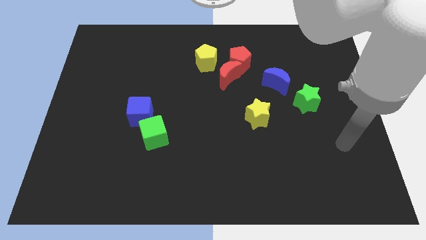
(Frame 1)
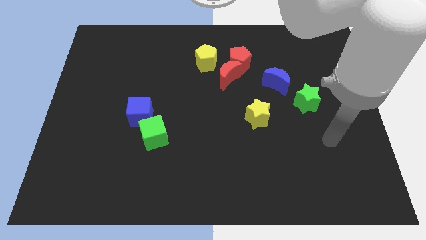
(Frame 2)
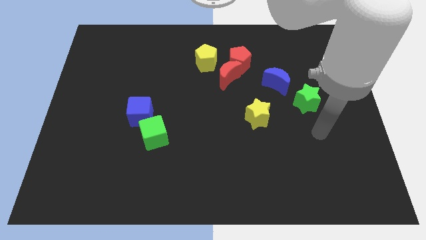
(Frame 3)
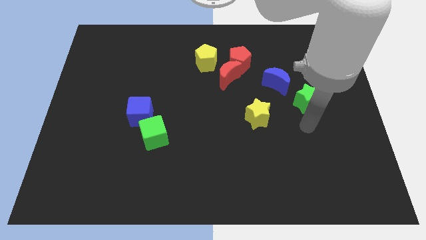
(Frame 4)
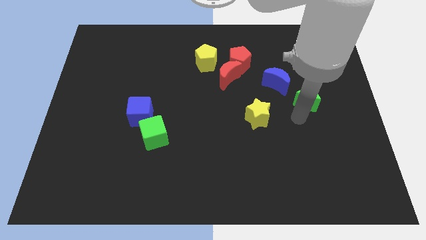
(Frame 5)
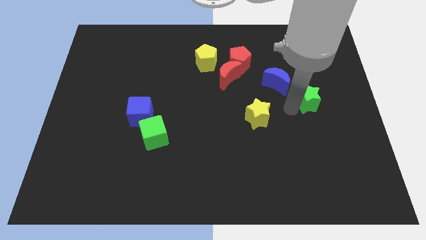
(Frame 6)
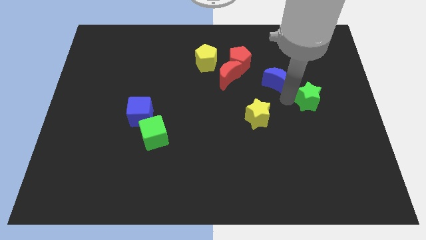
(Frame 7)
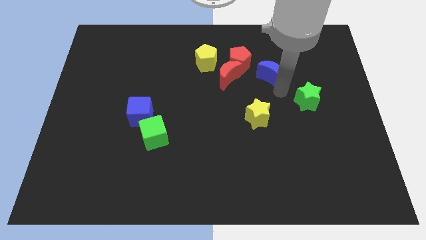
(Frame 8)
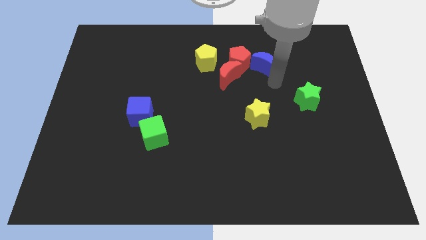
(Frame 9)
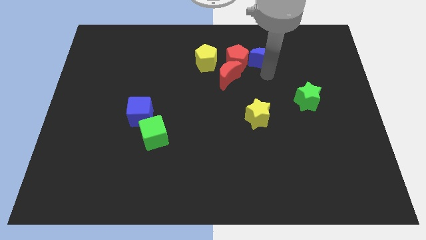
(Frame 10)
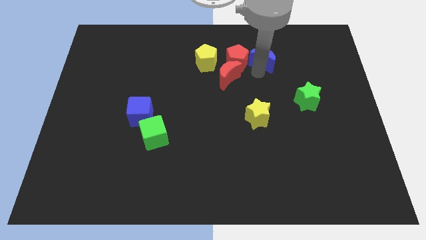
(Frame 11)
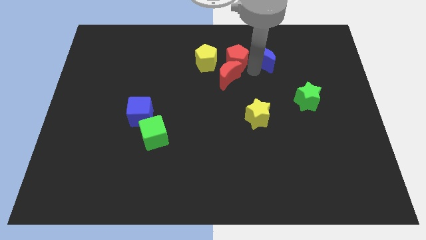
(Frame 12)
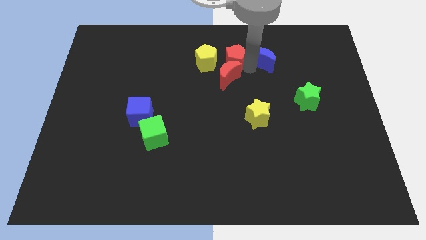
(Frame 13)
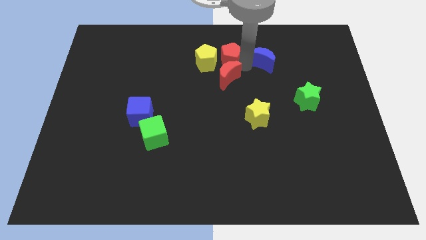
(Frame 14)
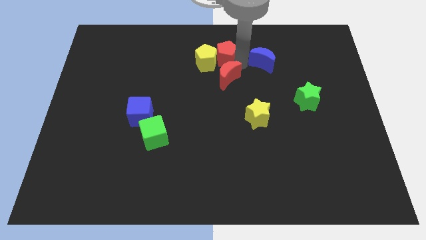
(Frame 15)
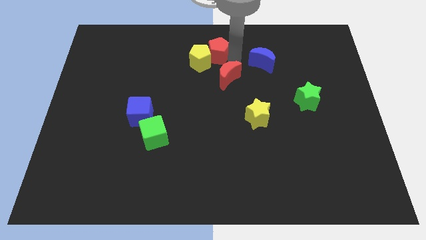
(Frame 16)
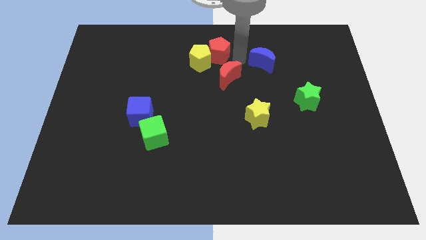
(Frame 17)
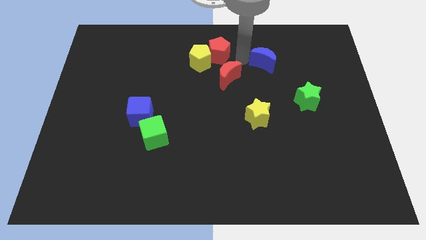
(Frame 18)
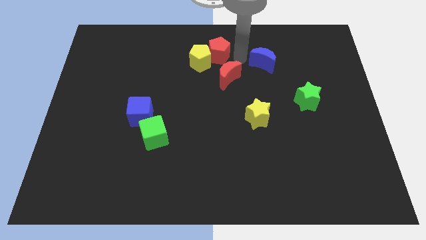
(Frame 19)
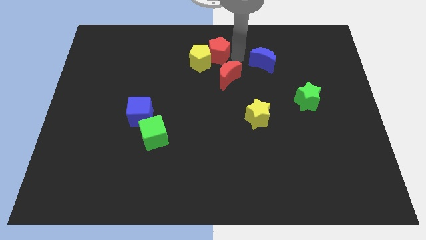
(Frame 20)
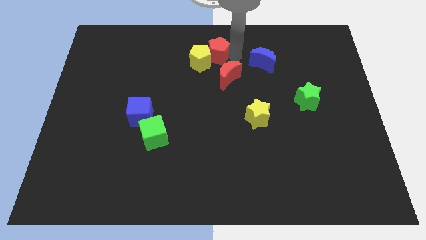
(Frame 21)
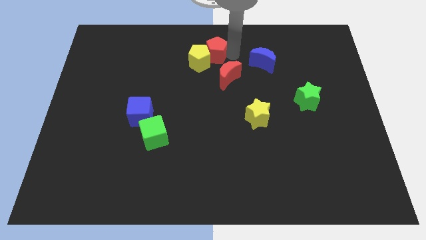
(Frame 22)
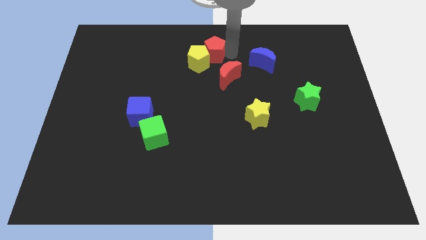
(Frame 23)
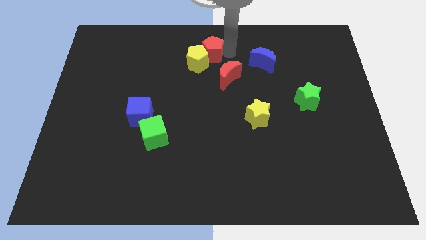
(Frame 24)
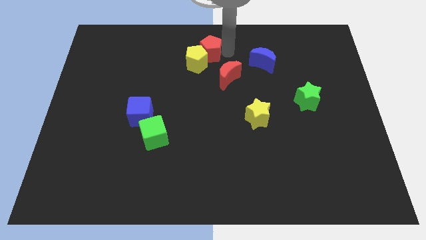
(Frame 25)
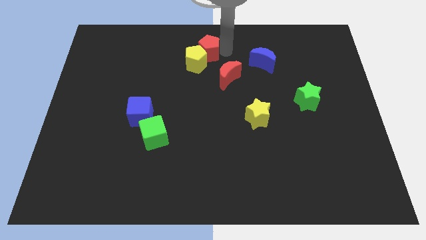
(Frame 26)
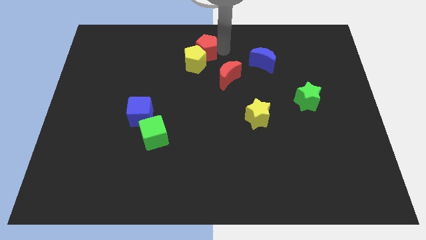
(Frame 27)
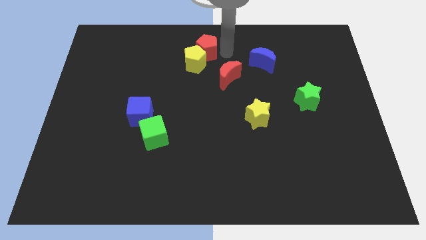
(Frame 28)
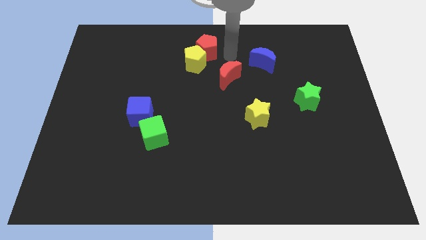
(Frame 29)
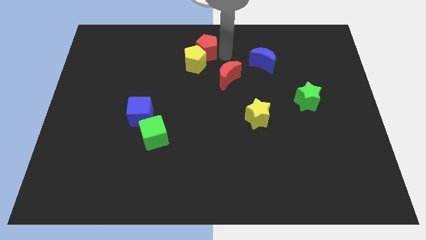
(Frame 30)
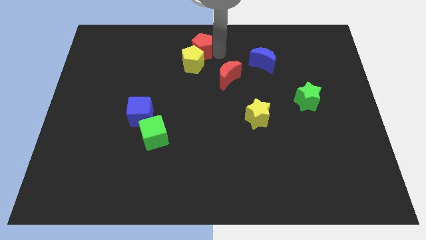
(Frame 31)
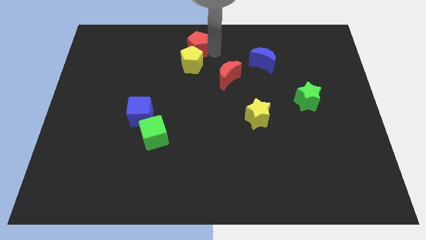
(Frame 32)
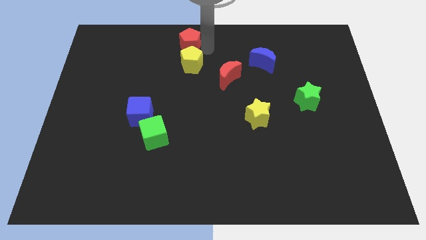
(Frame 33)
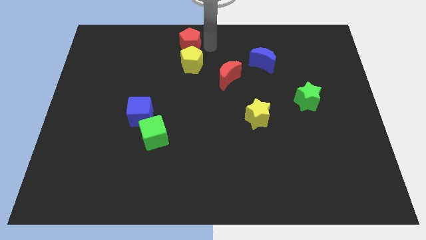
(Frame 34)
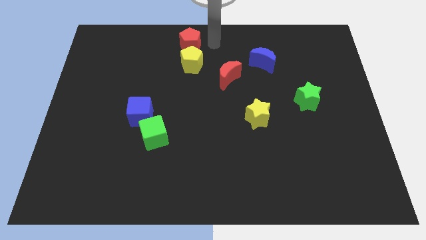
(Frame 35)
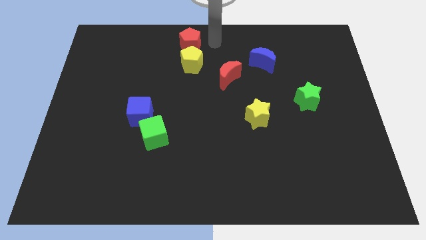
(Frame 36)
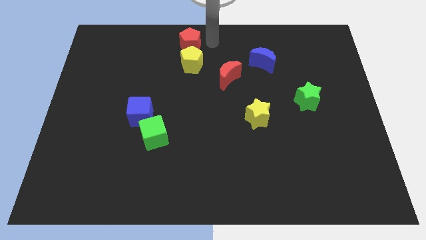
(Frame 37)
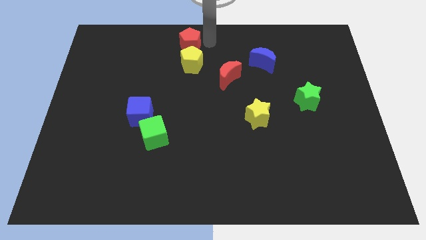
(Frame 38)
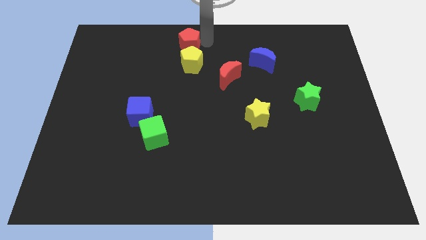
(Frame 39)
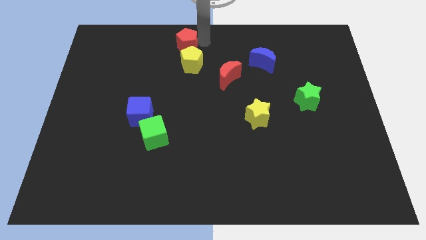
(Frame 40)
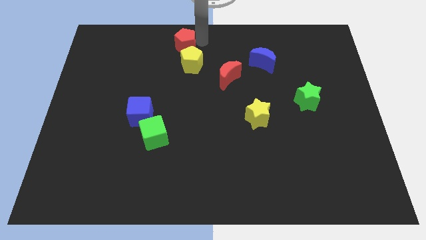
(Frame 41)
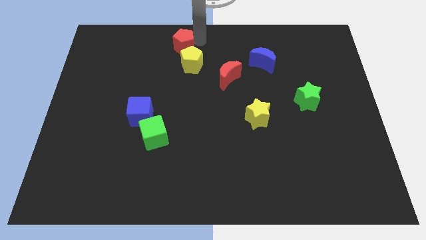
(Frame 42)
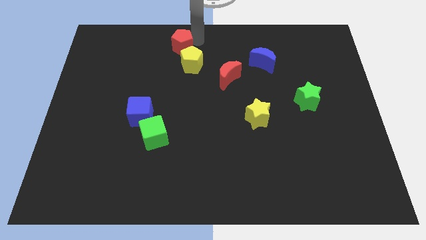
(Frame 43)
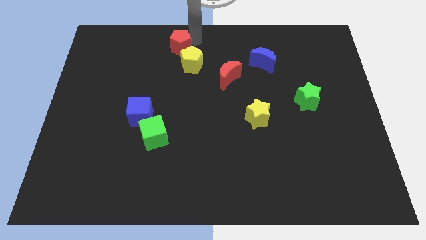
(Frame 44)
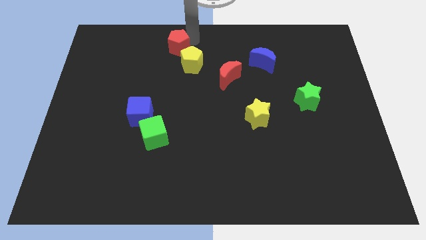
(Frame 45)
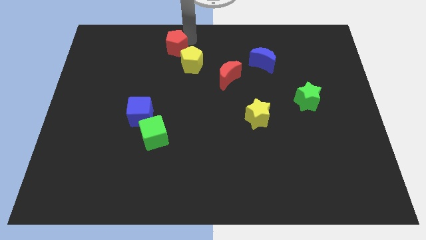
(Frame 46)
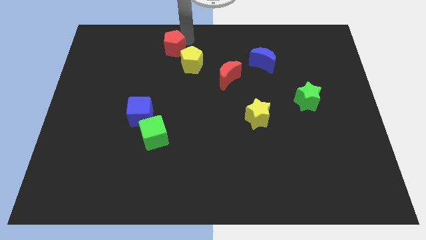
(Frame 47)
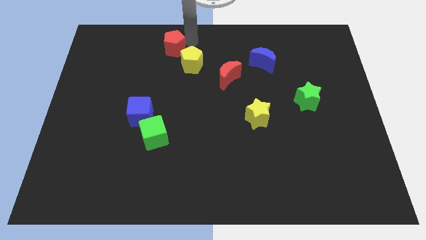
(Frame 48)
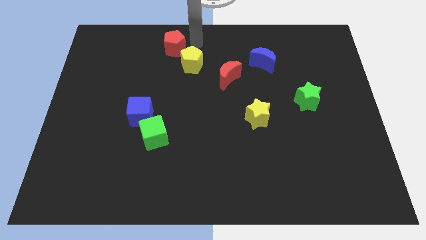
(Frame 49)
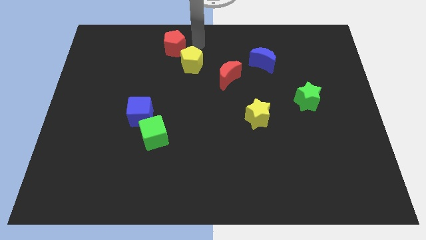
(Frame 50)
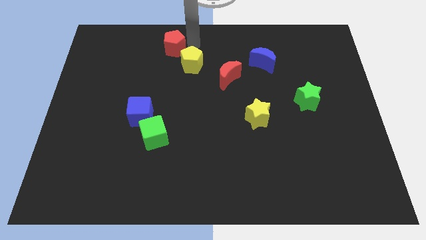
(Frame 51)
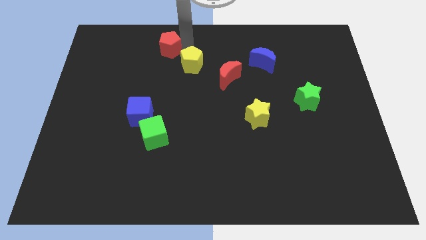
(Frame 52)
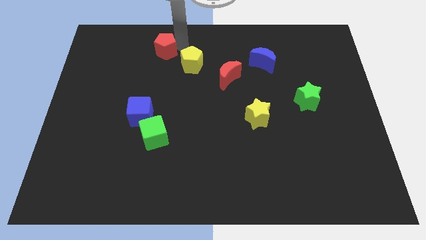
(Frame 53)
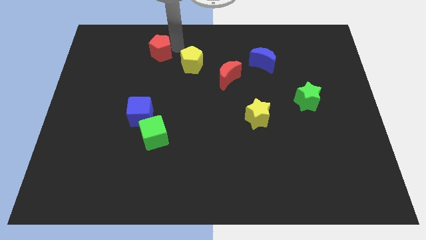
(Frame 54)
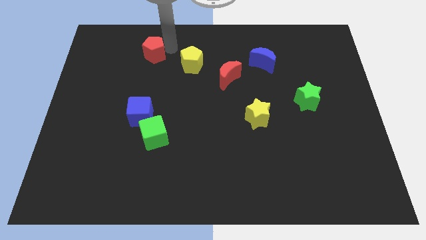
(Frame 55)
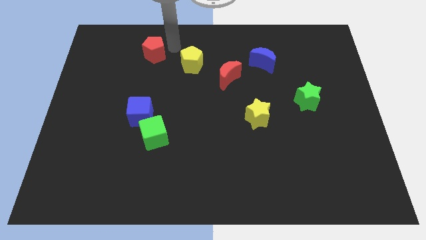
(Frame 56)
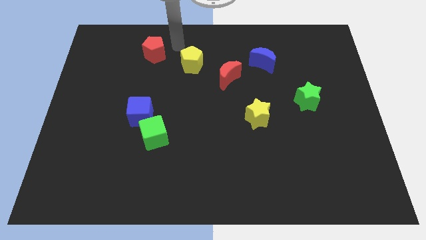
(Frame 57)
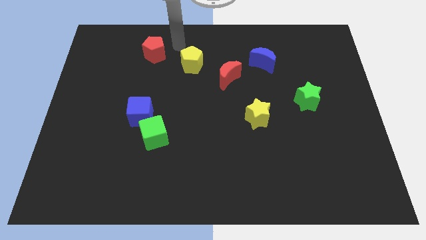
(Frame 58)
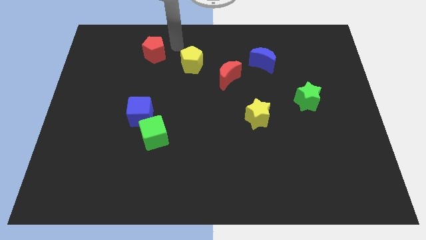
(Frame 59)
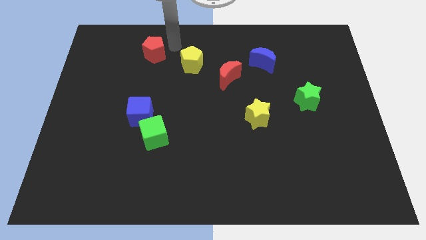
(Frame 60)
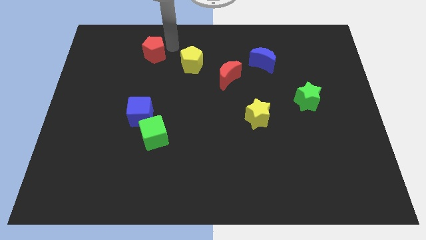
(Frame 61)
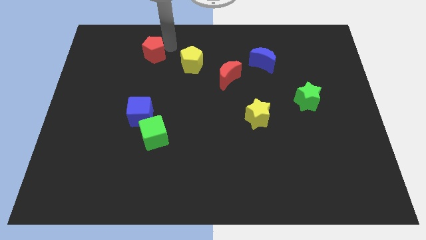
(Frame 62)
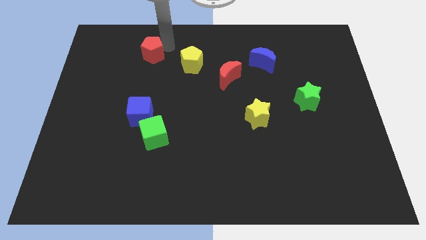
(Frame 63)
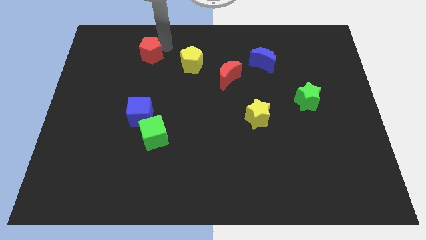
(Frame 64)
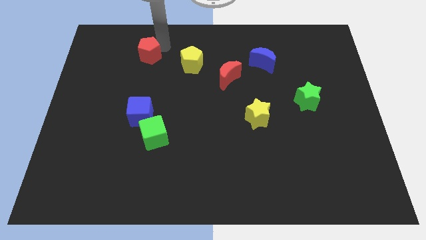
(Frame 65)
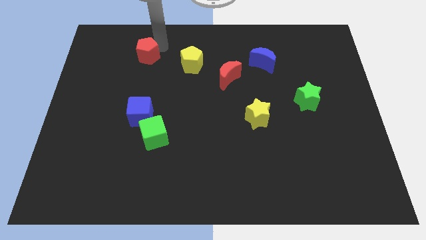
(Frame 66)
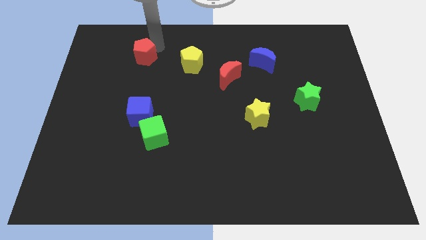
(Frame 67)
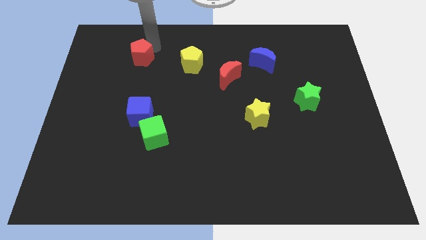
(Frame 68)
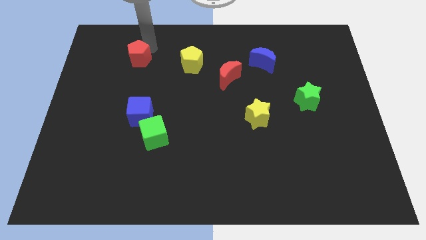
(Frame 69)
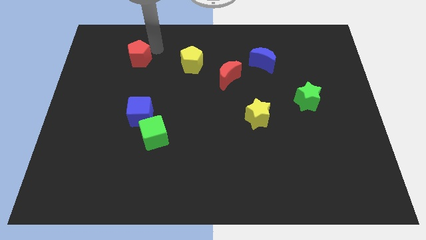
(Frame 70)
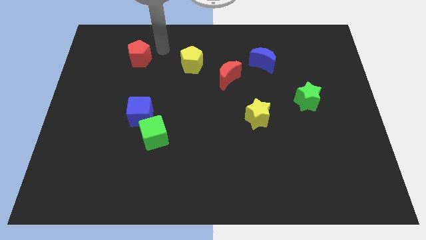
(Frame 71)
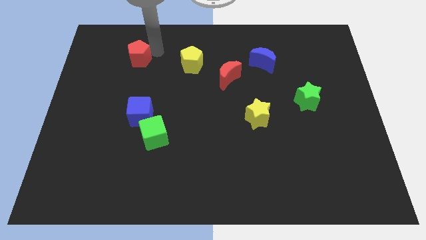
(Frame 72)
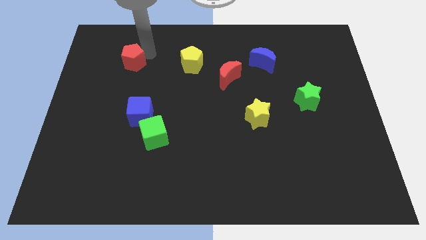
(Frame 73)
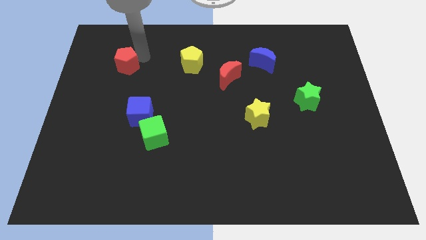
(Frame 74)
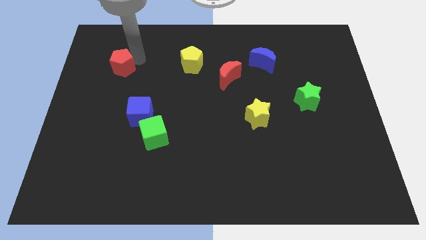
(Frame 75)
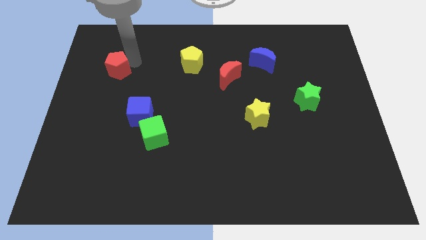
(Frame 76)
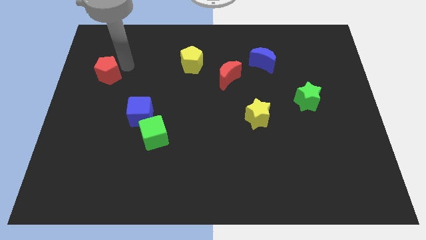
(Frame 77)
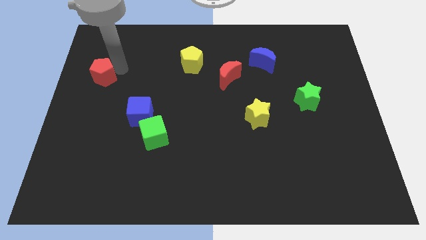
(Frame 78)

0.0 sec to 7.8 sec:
slide the red pentagon to the center left
